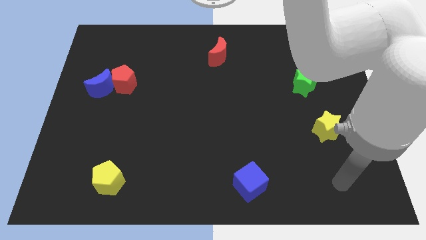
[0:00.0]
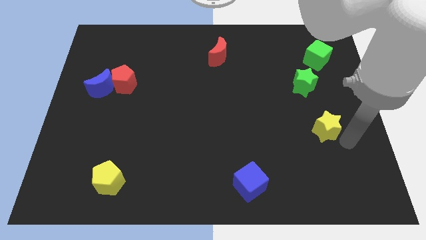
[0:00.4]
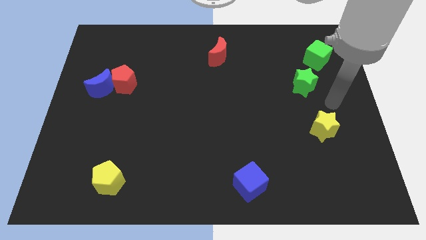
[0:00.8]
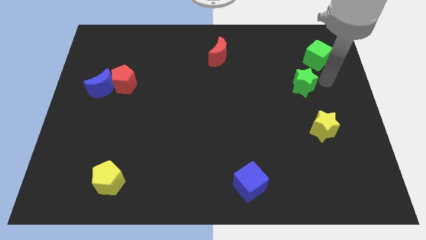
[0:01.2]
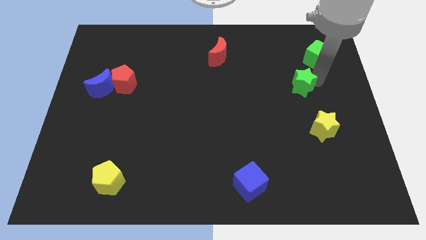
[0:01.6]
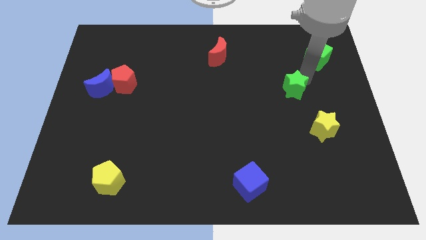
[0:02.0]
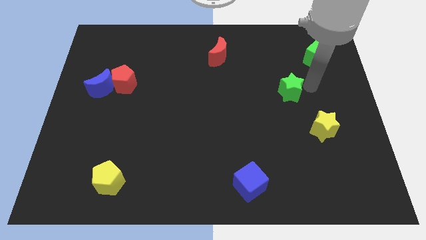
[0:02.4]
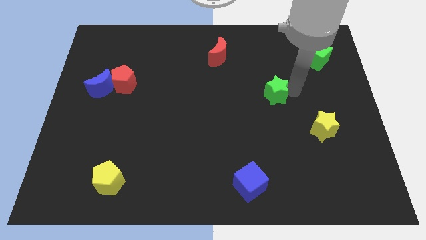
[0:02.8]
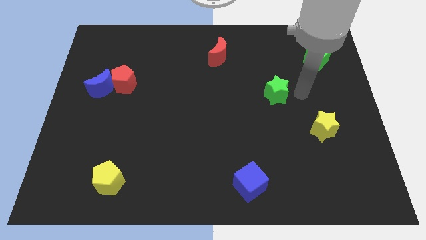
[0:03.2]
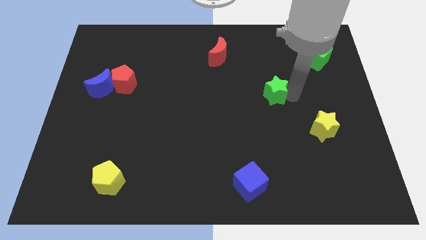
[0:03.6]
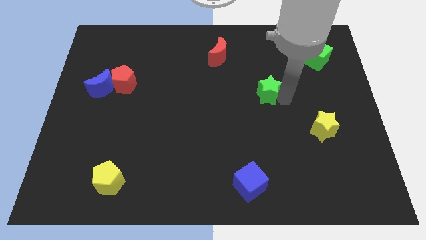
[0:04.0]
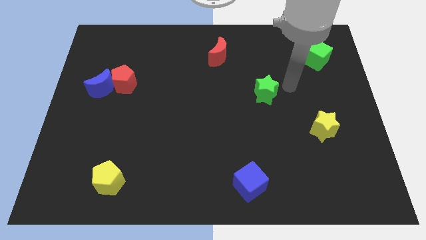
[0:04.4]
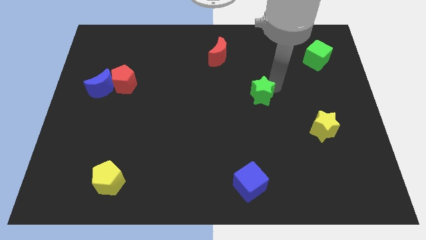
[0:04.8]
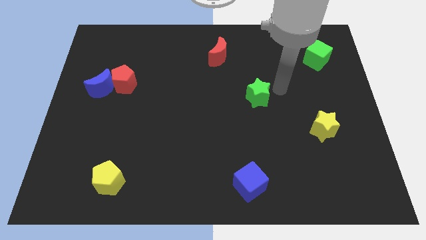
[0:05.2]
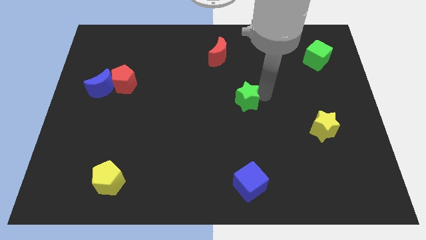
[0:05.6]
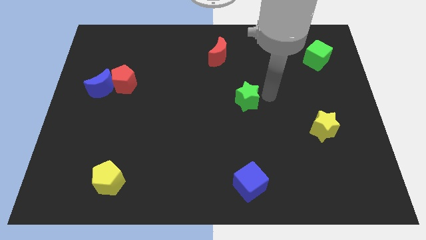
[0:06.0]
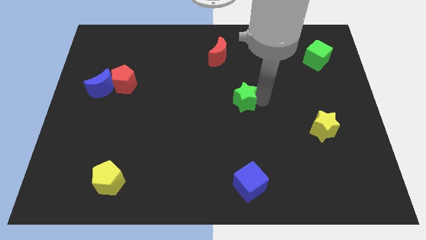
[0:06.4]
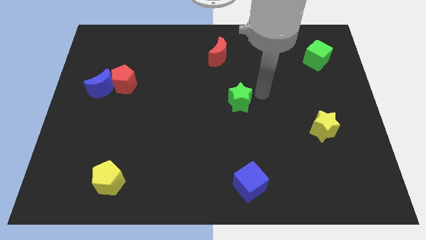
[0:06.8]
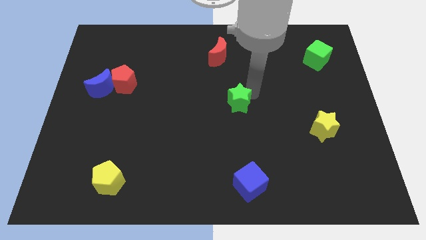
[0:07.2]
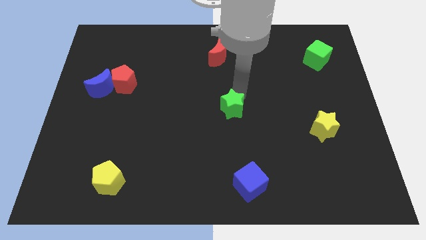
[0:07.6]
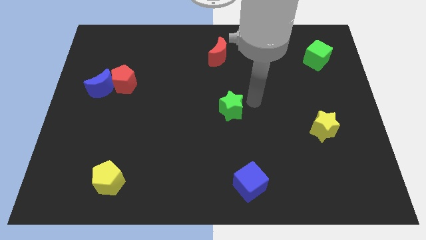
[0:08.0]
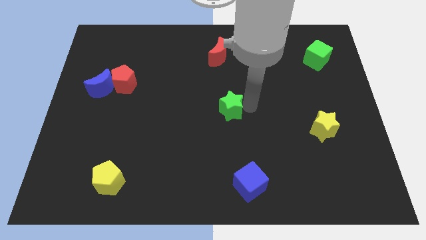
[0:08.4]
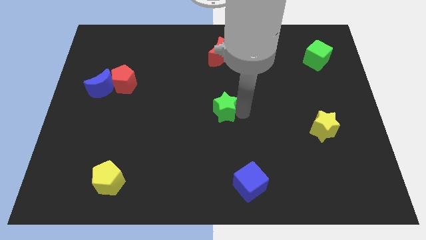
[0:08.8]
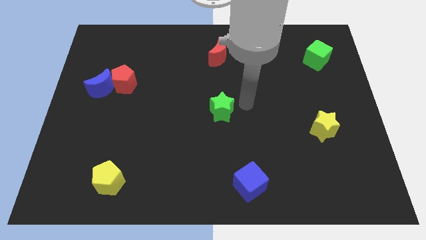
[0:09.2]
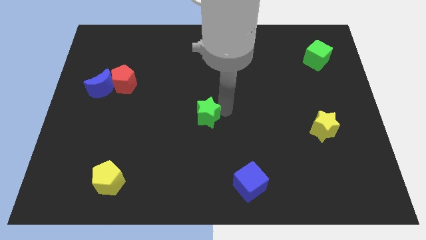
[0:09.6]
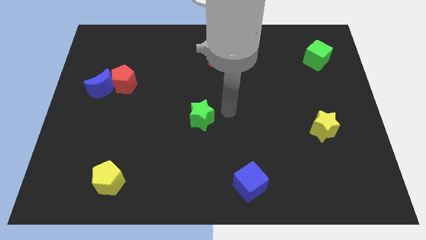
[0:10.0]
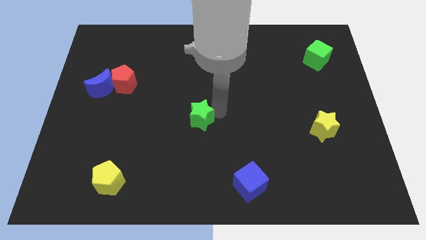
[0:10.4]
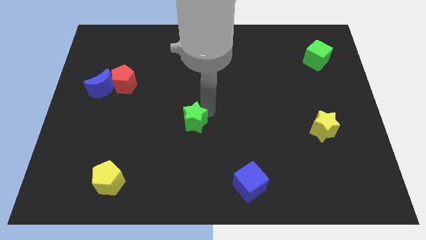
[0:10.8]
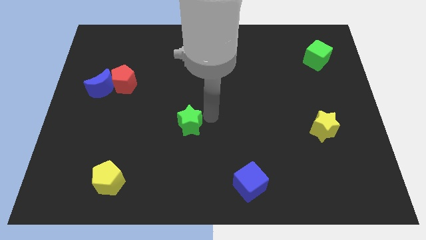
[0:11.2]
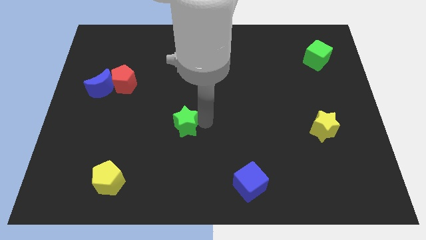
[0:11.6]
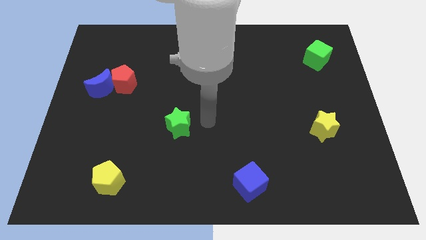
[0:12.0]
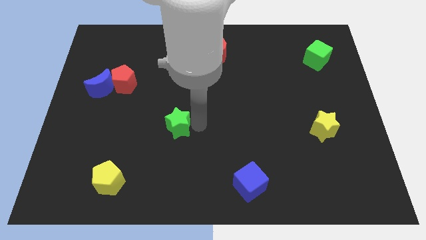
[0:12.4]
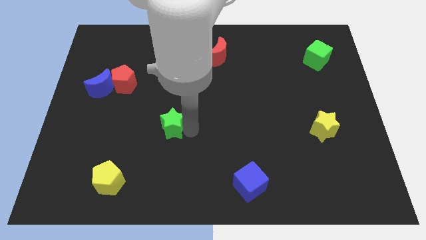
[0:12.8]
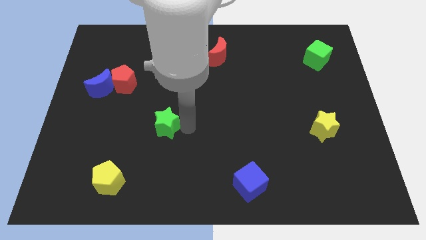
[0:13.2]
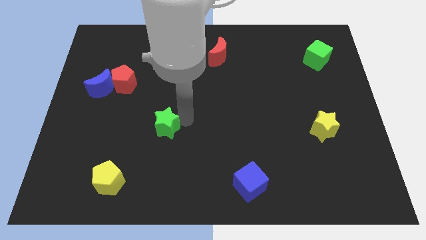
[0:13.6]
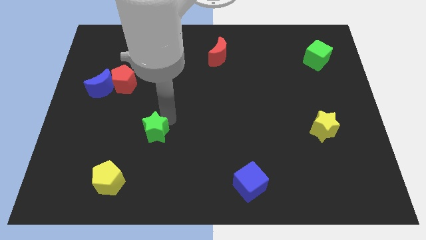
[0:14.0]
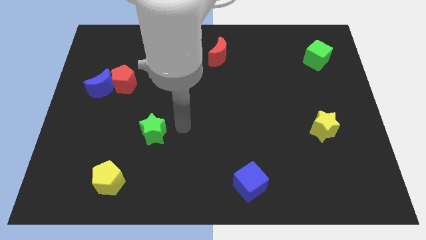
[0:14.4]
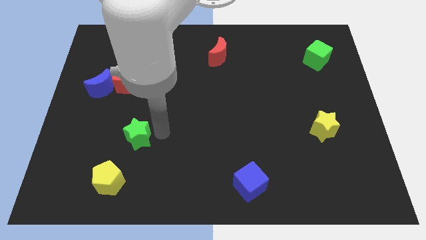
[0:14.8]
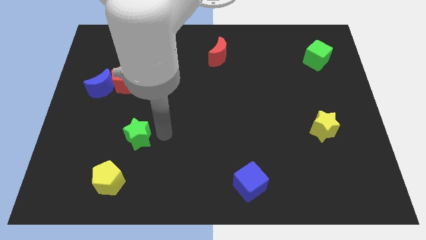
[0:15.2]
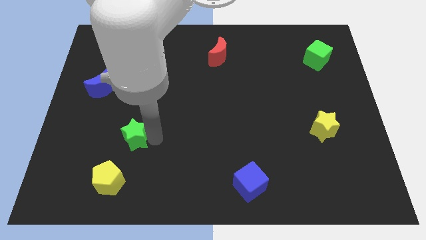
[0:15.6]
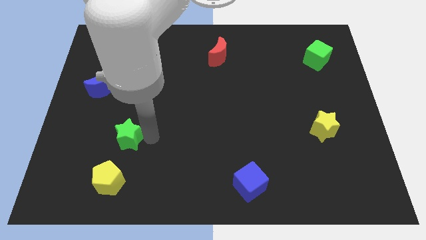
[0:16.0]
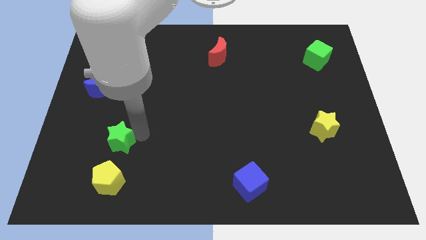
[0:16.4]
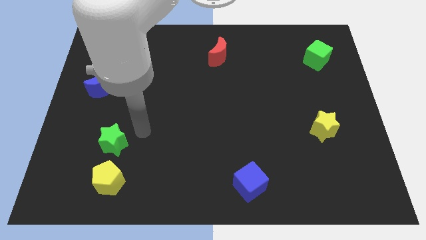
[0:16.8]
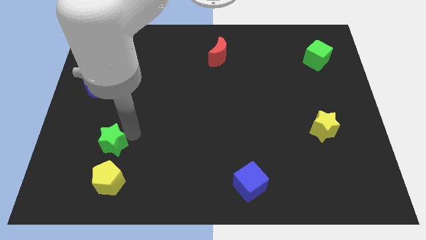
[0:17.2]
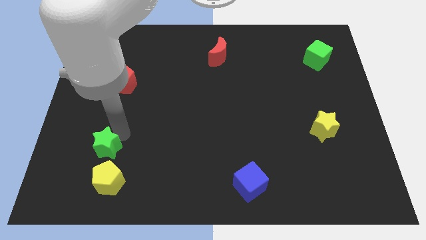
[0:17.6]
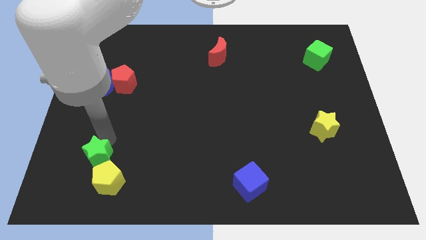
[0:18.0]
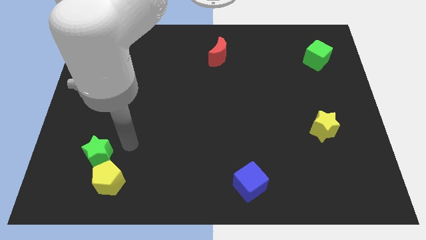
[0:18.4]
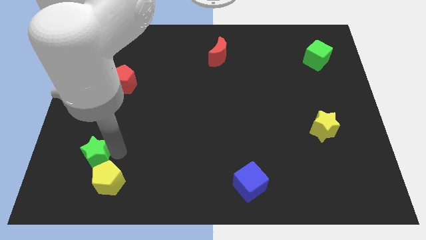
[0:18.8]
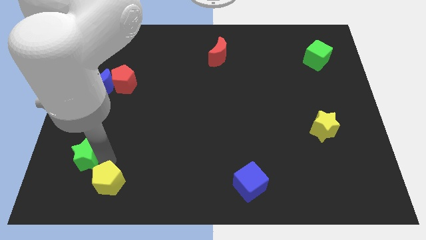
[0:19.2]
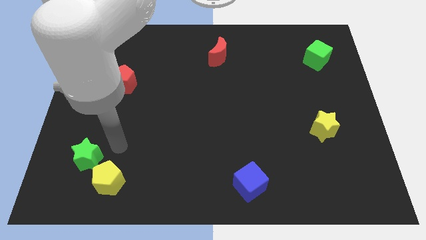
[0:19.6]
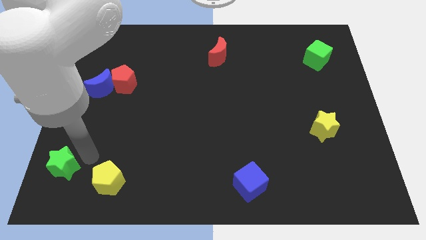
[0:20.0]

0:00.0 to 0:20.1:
move the green star to the lower left corner

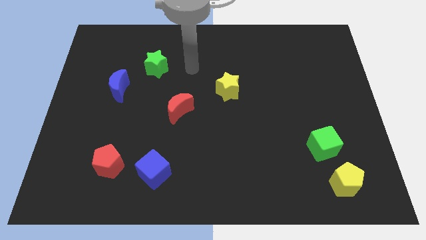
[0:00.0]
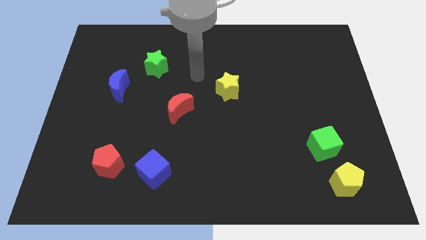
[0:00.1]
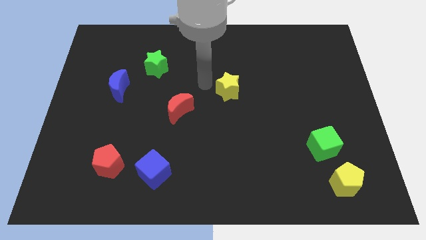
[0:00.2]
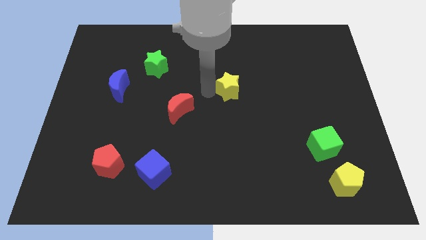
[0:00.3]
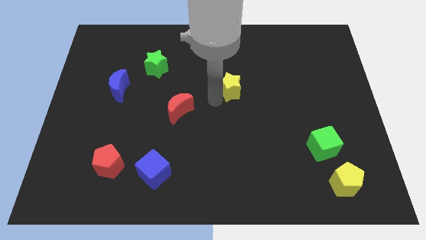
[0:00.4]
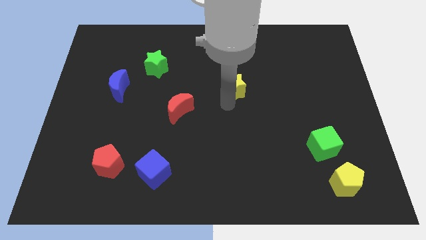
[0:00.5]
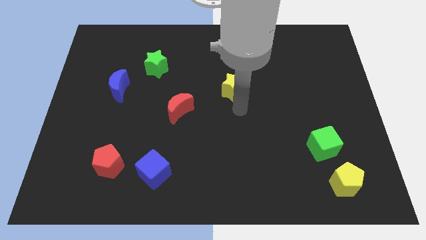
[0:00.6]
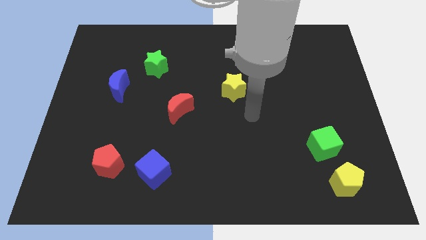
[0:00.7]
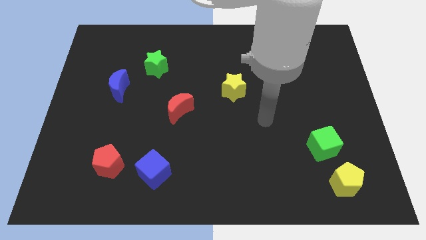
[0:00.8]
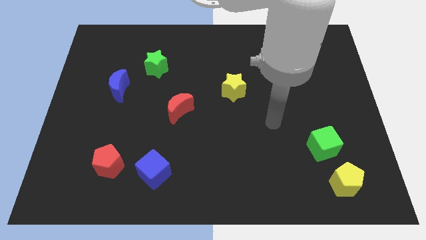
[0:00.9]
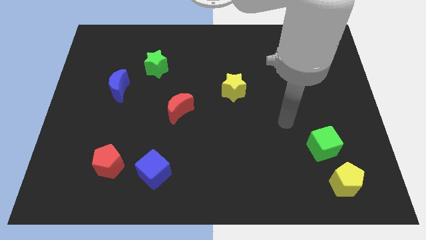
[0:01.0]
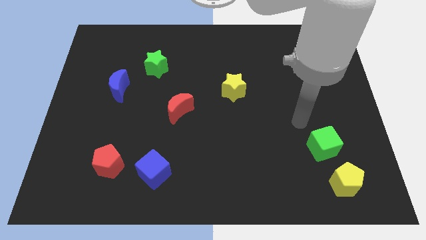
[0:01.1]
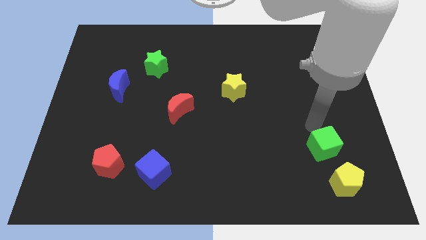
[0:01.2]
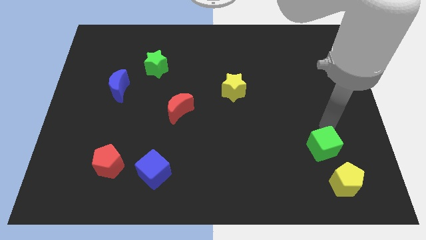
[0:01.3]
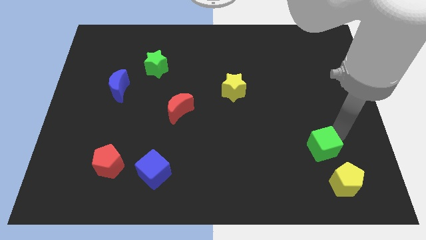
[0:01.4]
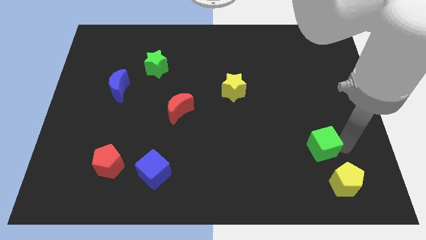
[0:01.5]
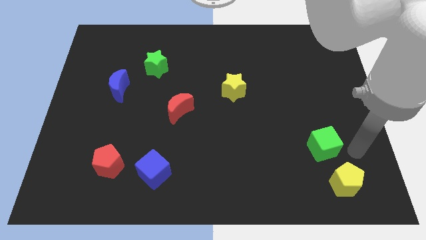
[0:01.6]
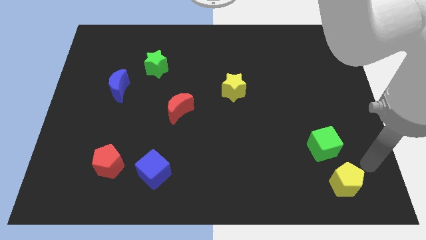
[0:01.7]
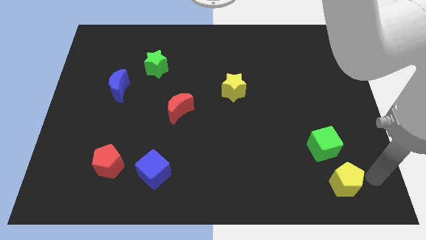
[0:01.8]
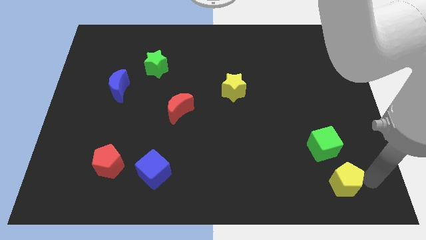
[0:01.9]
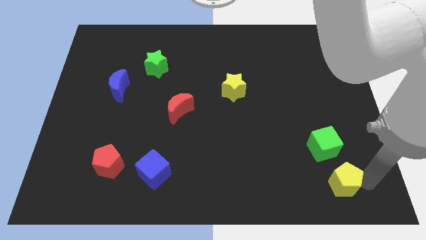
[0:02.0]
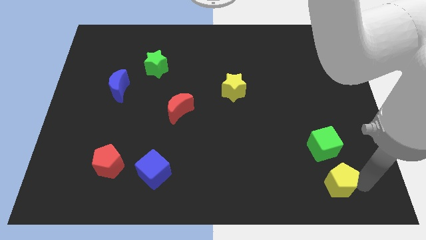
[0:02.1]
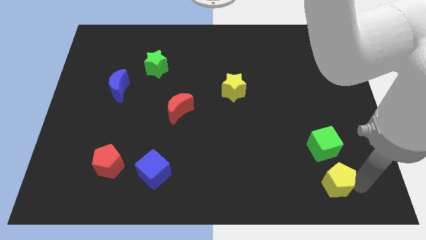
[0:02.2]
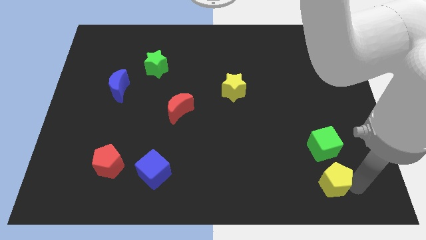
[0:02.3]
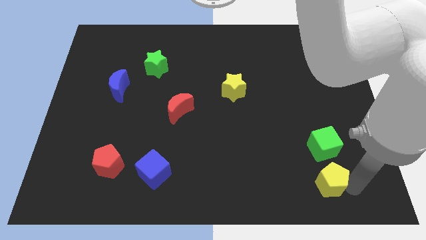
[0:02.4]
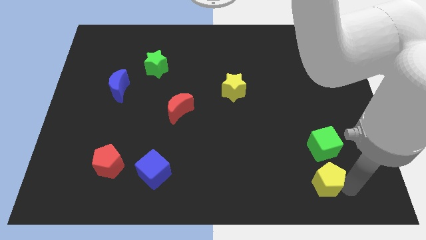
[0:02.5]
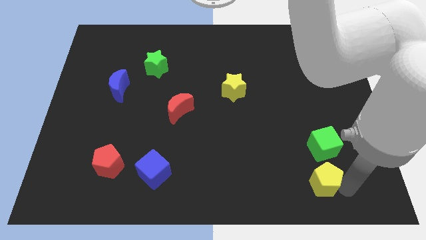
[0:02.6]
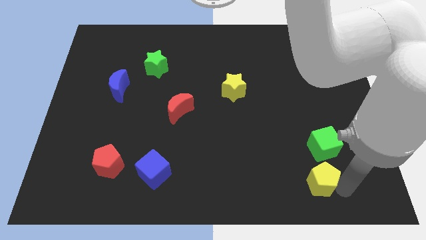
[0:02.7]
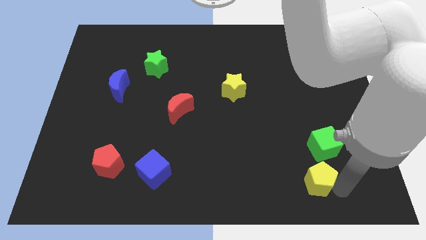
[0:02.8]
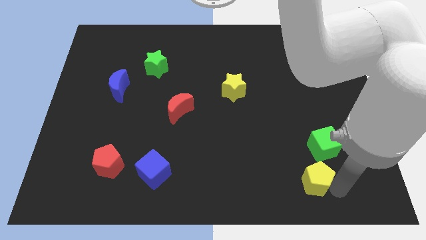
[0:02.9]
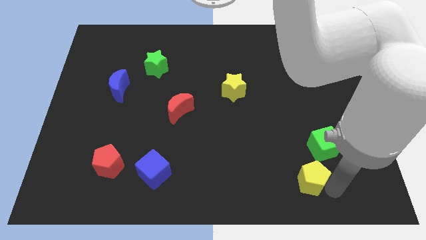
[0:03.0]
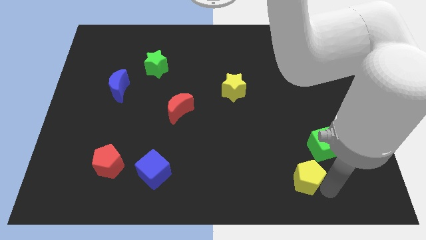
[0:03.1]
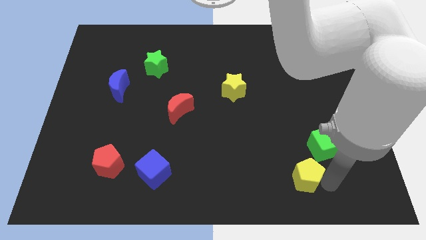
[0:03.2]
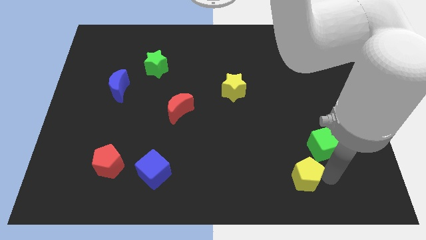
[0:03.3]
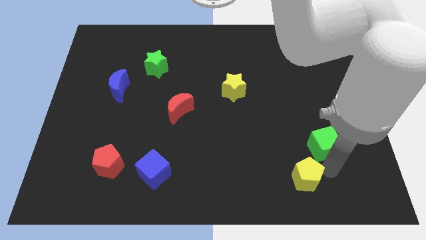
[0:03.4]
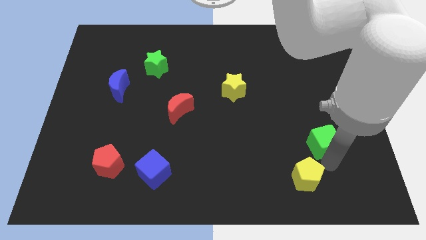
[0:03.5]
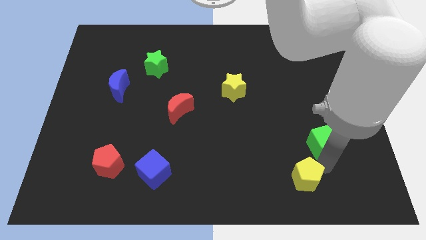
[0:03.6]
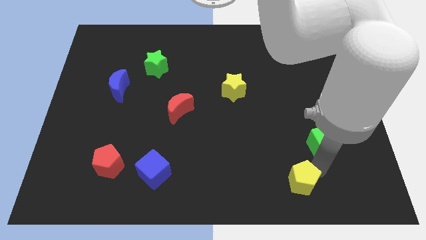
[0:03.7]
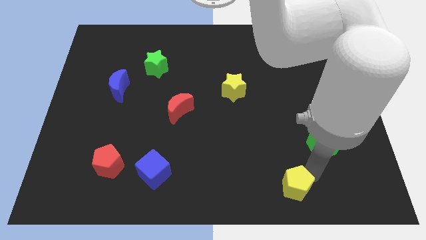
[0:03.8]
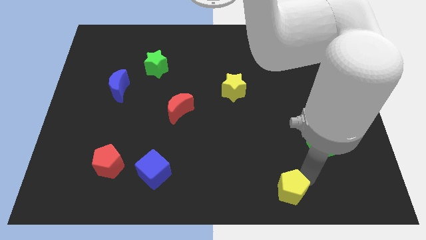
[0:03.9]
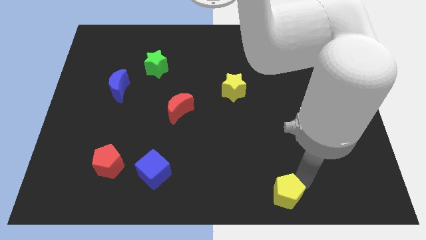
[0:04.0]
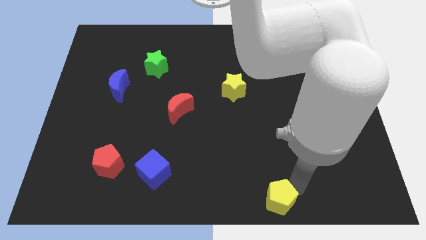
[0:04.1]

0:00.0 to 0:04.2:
slide the yellow pentagon to the bottom
